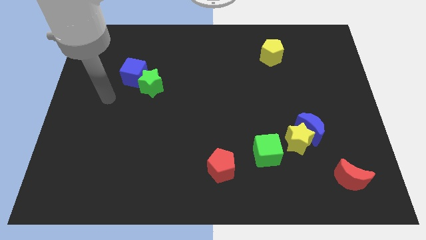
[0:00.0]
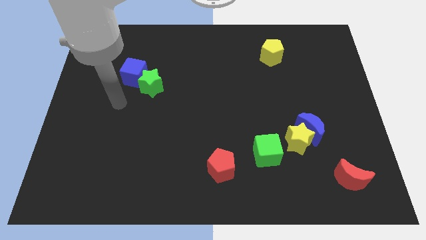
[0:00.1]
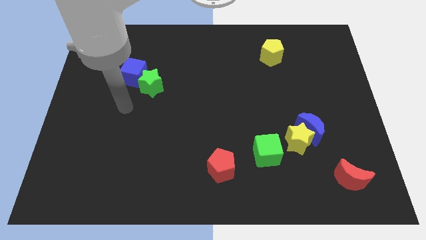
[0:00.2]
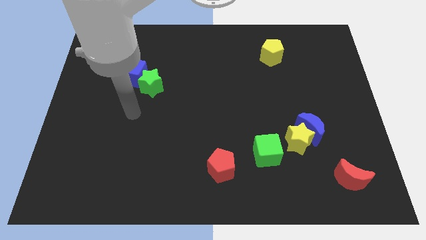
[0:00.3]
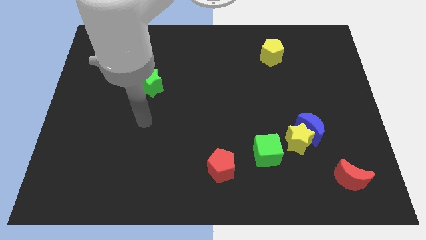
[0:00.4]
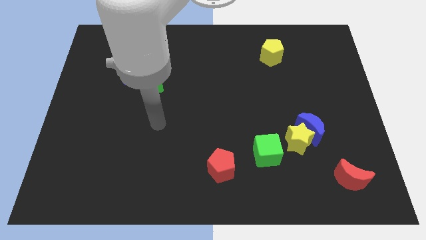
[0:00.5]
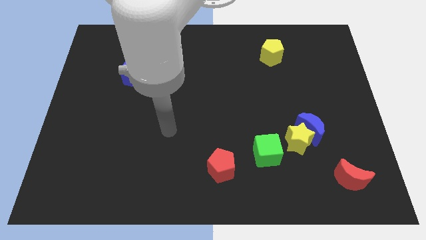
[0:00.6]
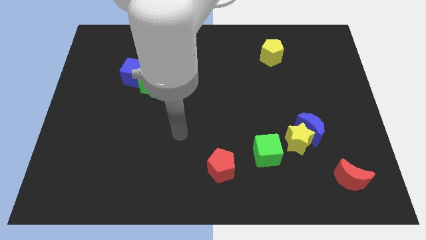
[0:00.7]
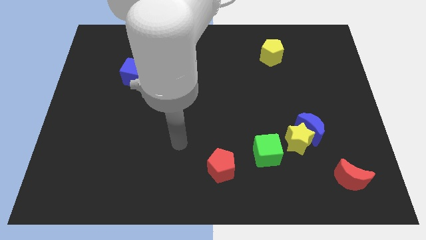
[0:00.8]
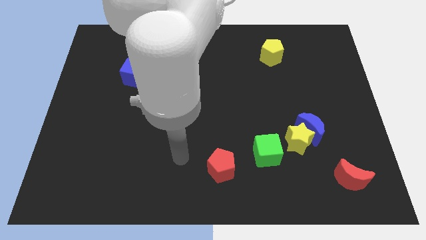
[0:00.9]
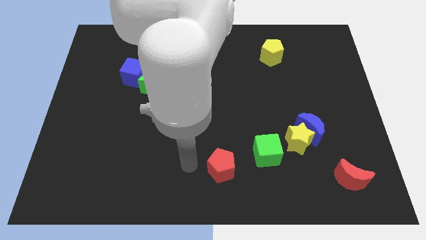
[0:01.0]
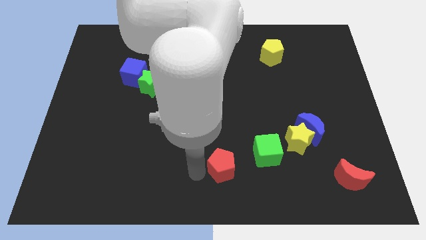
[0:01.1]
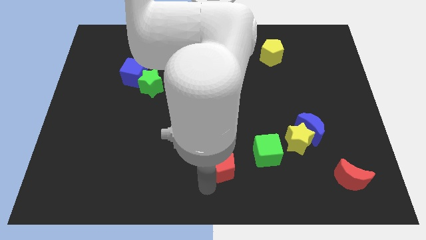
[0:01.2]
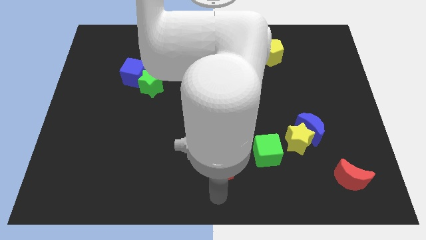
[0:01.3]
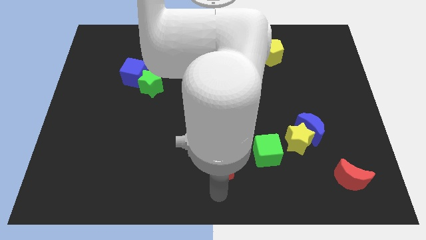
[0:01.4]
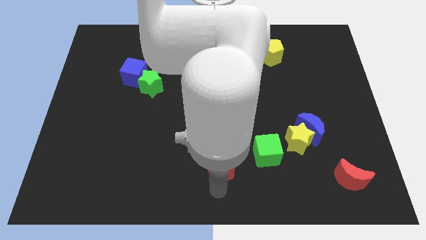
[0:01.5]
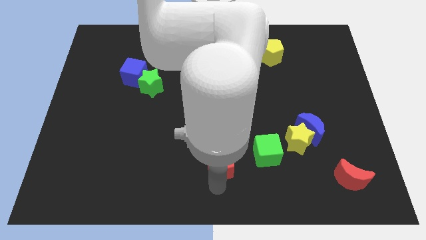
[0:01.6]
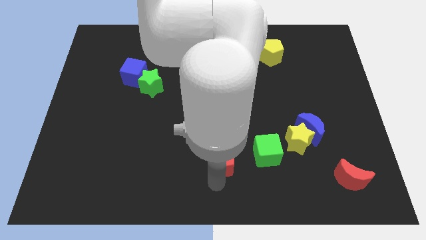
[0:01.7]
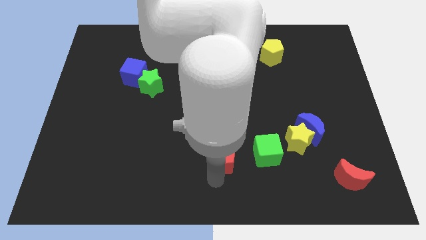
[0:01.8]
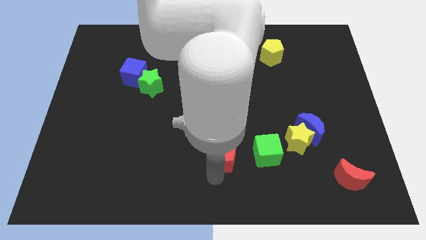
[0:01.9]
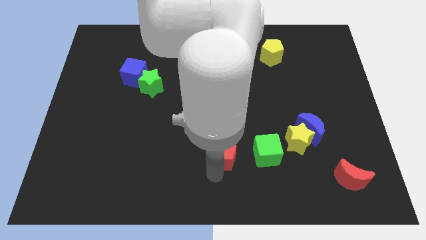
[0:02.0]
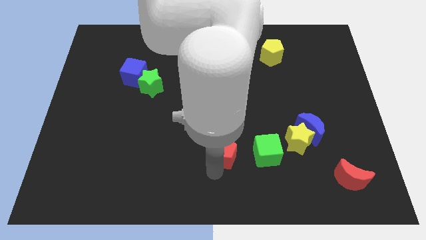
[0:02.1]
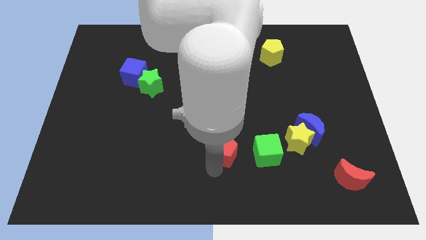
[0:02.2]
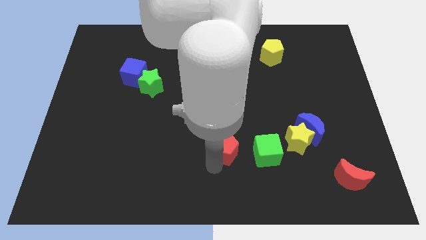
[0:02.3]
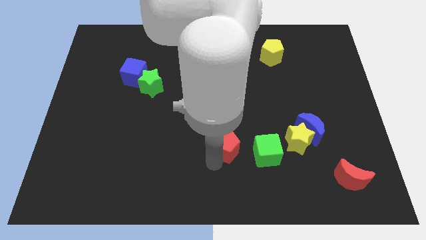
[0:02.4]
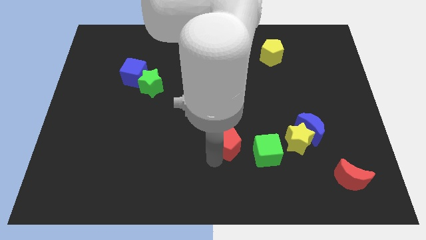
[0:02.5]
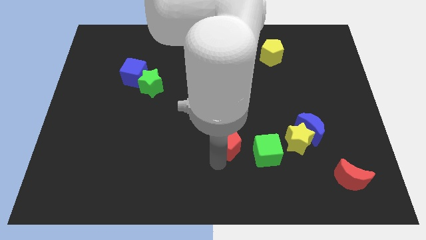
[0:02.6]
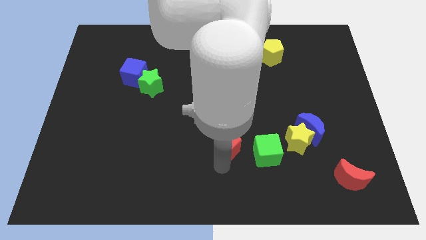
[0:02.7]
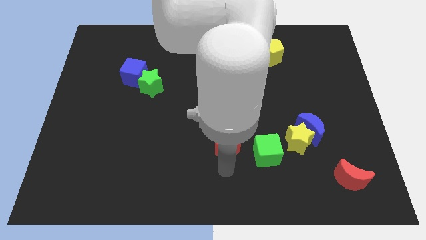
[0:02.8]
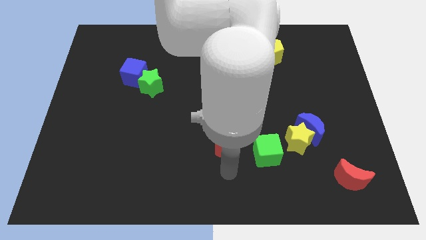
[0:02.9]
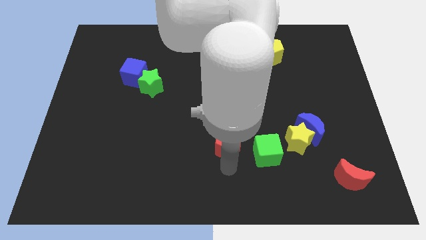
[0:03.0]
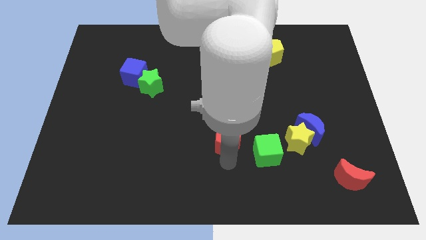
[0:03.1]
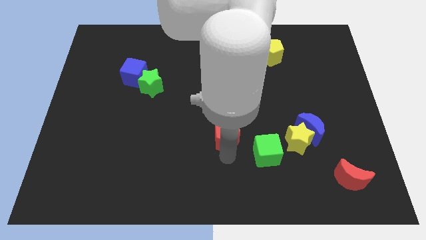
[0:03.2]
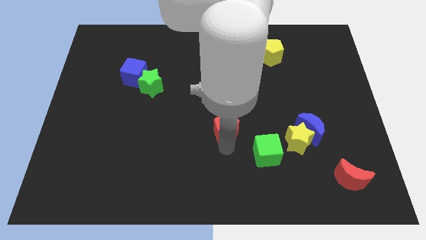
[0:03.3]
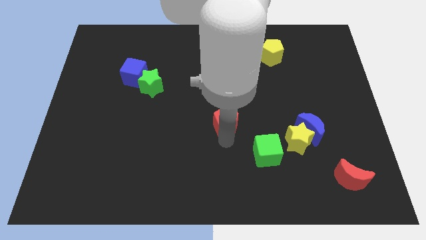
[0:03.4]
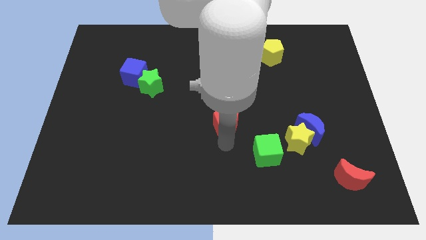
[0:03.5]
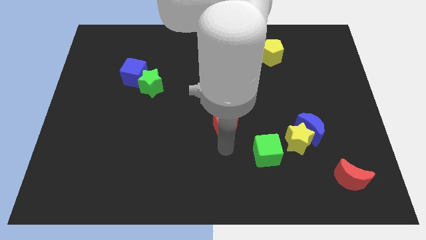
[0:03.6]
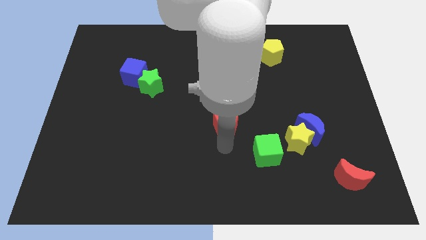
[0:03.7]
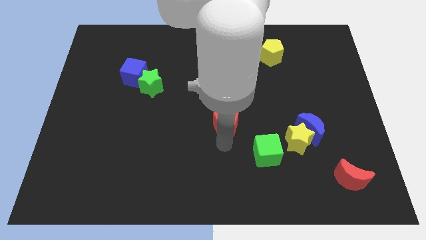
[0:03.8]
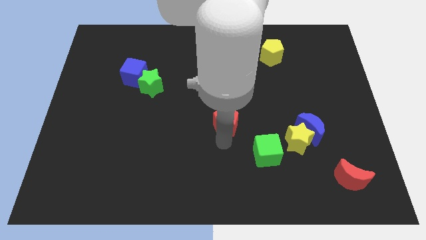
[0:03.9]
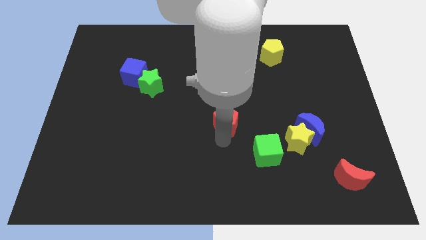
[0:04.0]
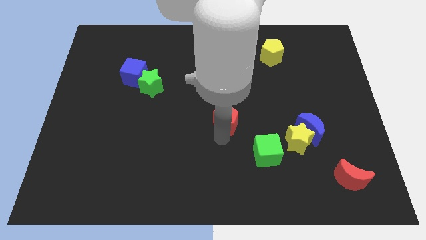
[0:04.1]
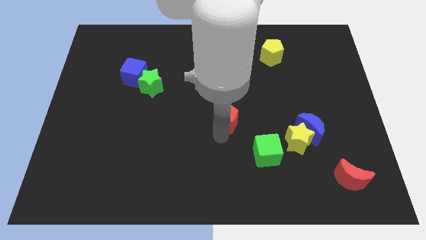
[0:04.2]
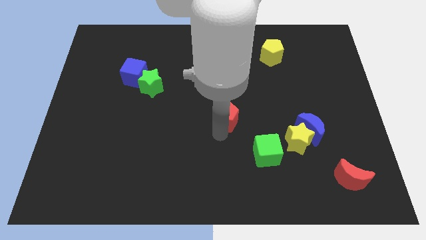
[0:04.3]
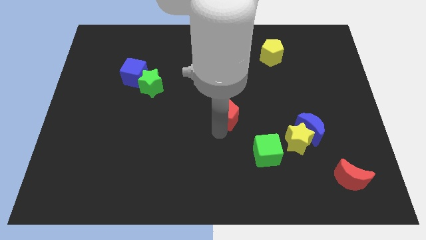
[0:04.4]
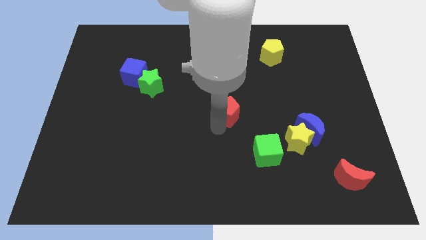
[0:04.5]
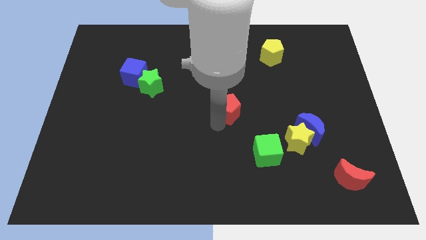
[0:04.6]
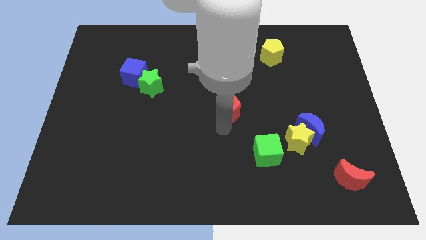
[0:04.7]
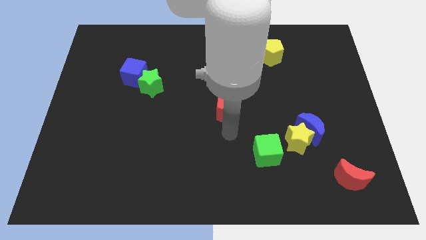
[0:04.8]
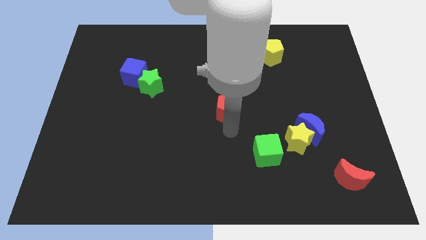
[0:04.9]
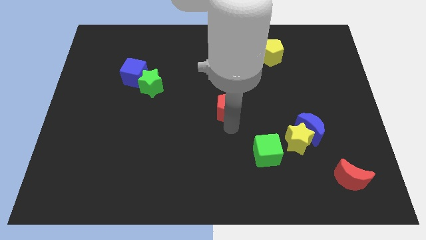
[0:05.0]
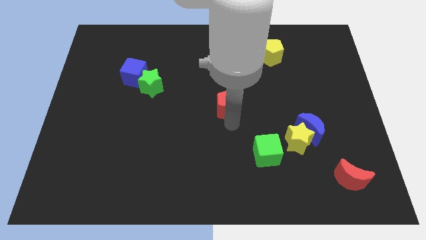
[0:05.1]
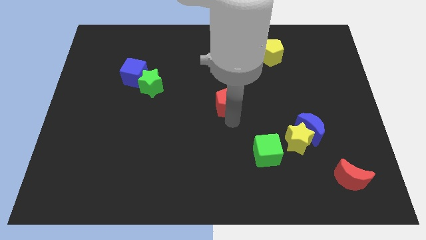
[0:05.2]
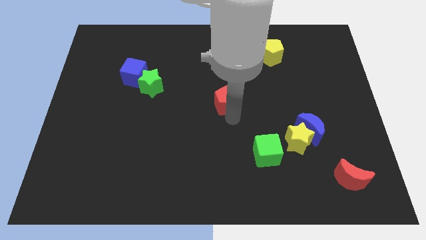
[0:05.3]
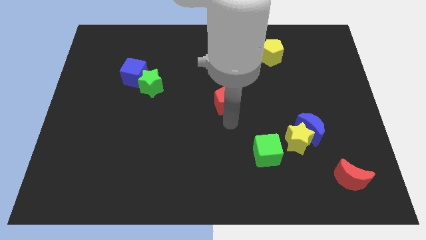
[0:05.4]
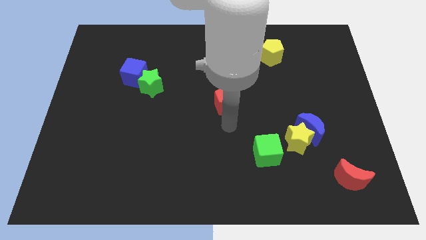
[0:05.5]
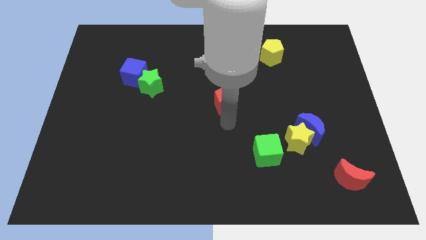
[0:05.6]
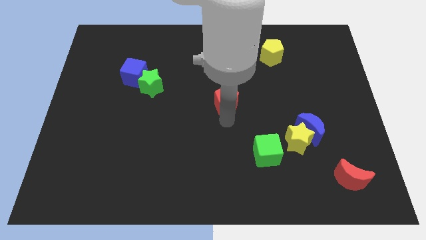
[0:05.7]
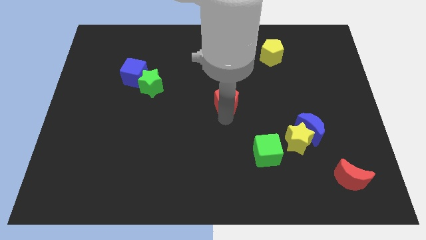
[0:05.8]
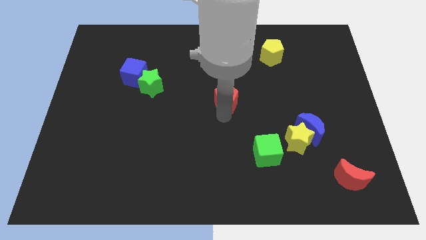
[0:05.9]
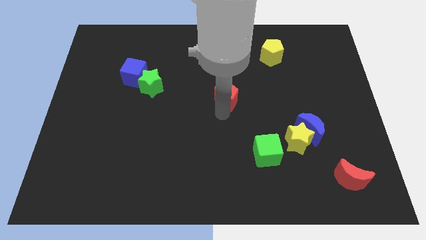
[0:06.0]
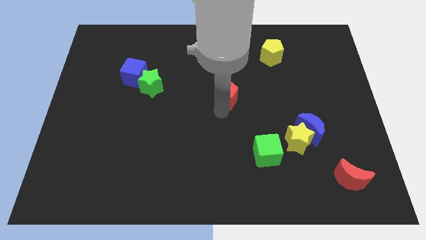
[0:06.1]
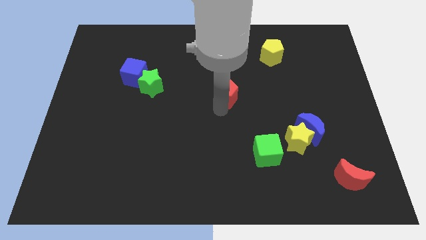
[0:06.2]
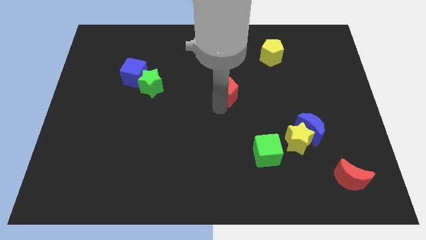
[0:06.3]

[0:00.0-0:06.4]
slide the red pentagon up

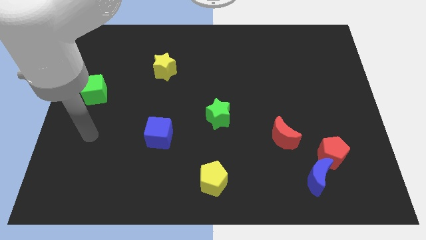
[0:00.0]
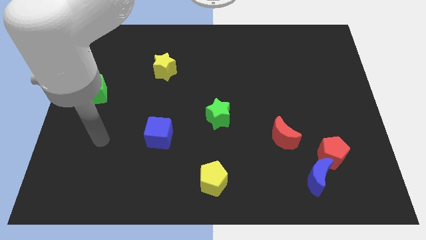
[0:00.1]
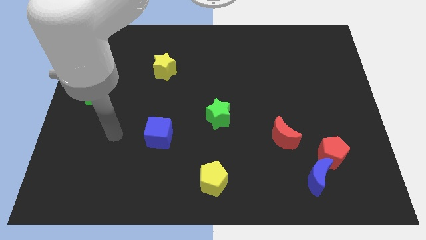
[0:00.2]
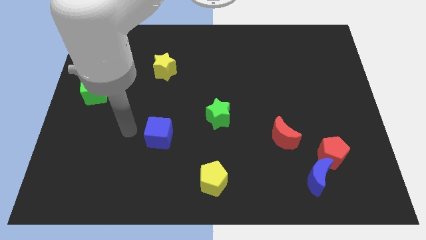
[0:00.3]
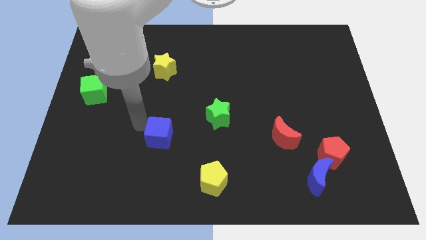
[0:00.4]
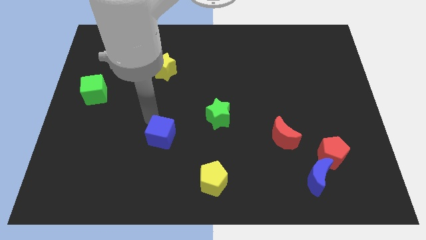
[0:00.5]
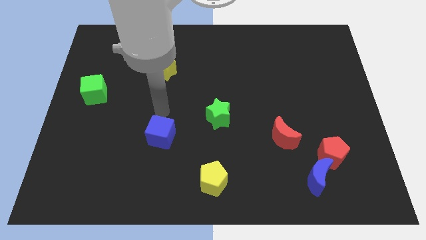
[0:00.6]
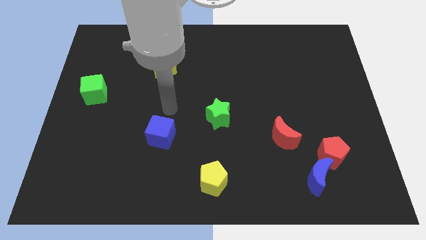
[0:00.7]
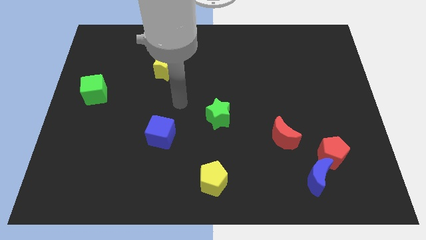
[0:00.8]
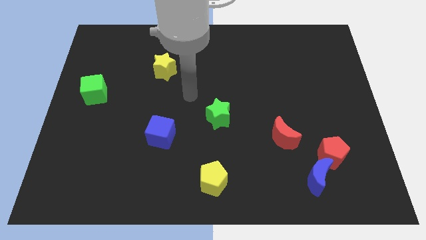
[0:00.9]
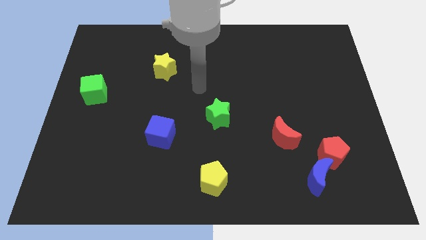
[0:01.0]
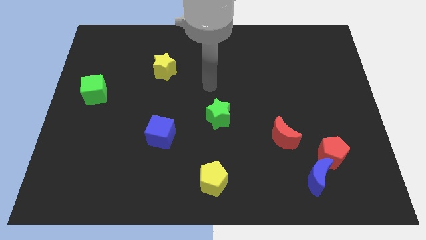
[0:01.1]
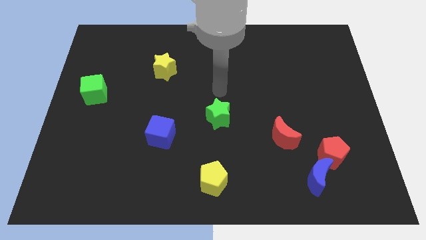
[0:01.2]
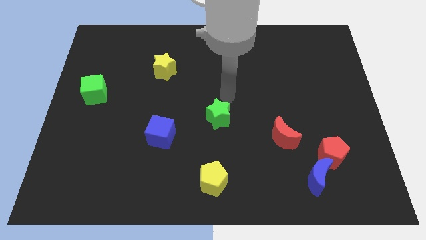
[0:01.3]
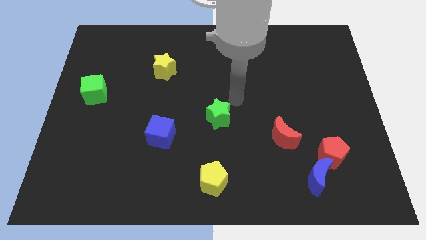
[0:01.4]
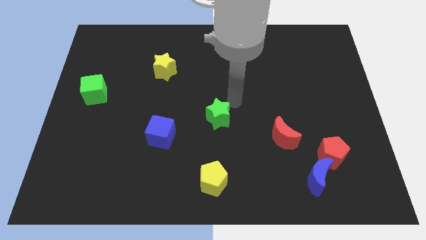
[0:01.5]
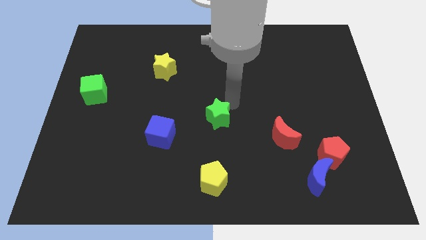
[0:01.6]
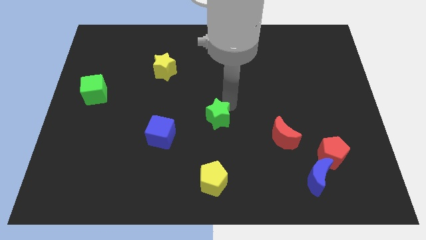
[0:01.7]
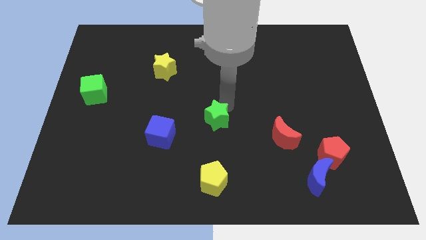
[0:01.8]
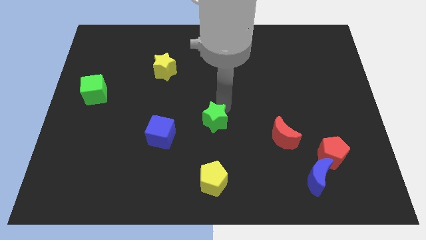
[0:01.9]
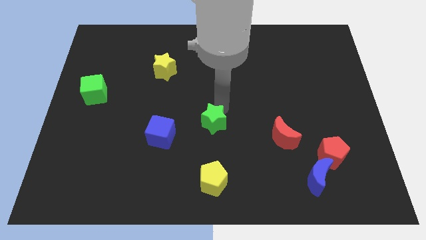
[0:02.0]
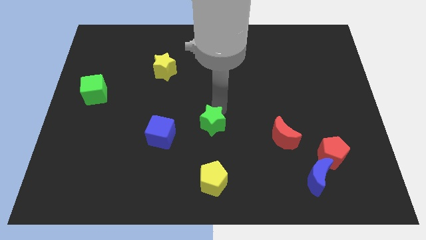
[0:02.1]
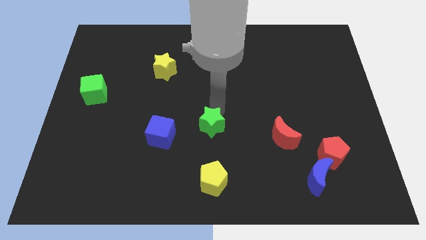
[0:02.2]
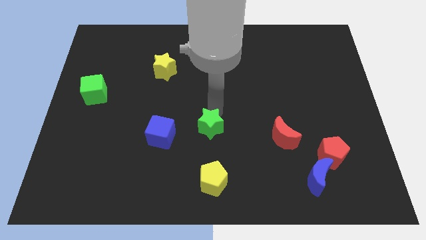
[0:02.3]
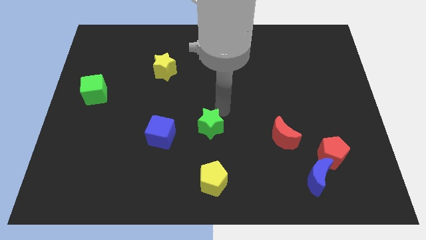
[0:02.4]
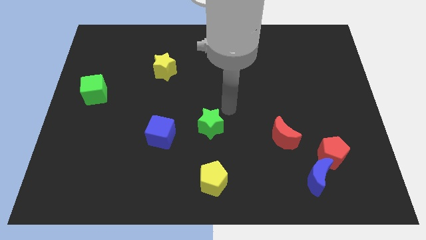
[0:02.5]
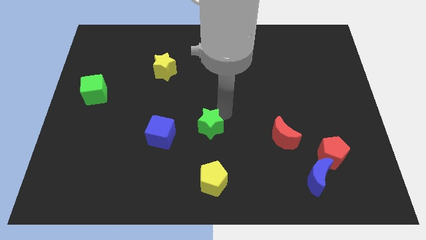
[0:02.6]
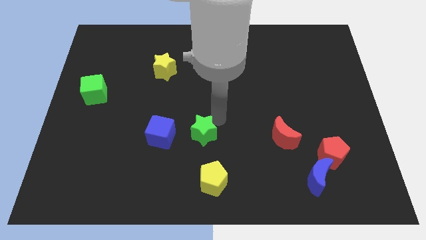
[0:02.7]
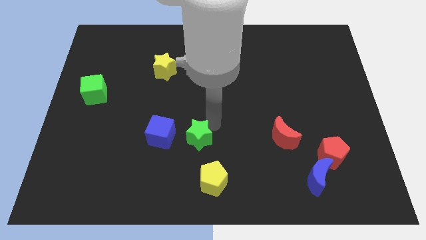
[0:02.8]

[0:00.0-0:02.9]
move the green star somewhat down and left
